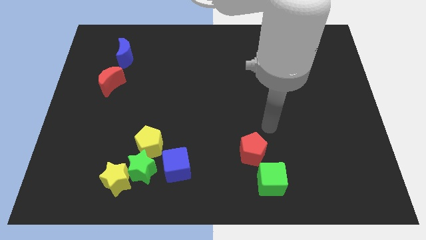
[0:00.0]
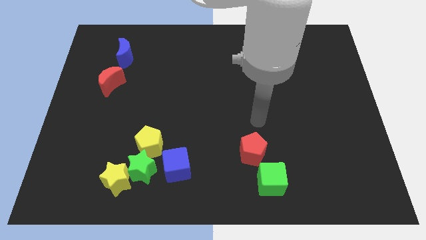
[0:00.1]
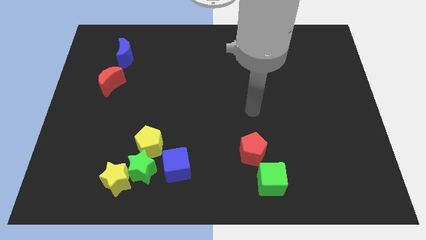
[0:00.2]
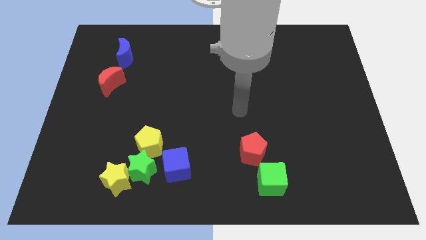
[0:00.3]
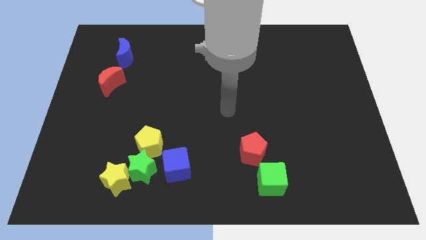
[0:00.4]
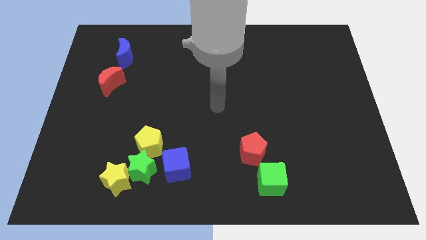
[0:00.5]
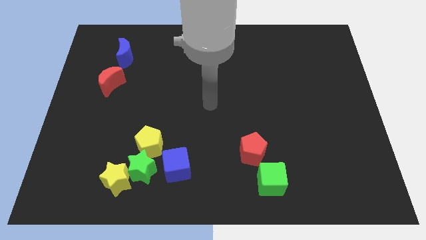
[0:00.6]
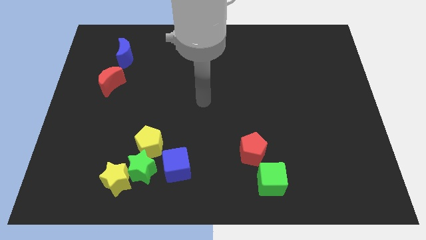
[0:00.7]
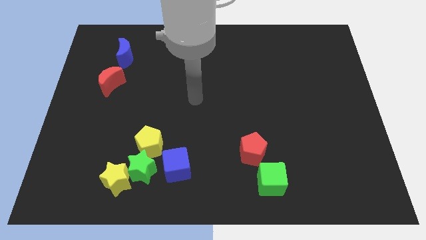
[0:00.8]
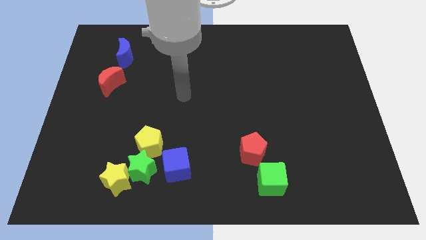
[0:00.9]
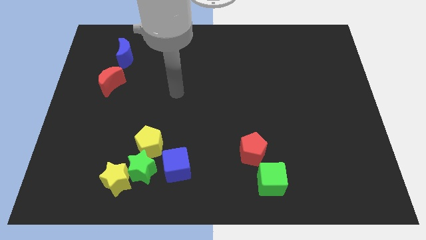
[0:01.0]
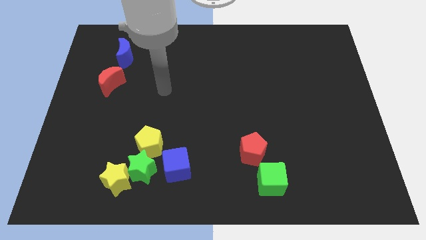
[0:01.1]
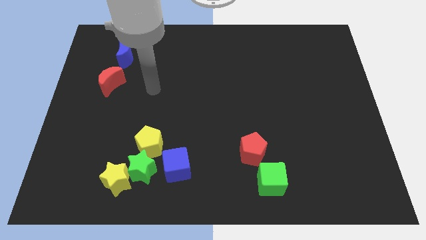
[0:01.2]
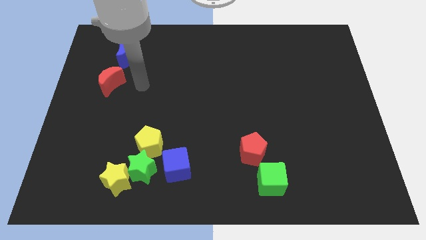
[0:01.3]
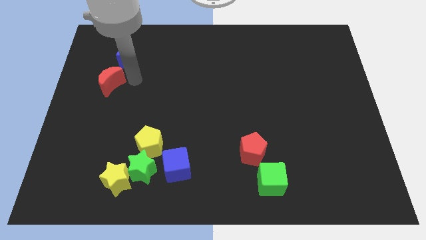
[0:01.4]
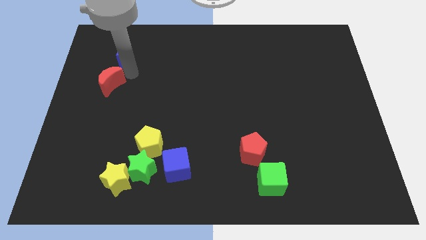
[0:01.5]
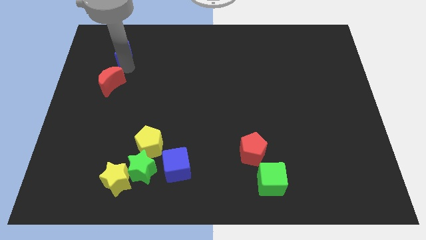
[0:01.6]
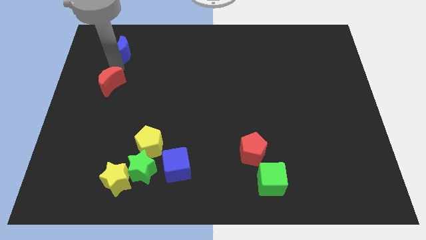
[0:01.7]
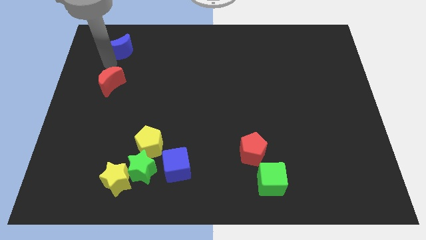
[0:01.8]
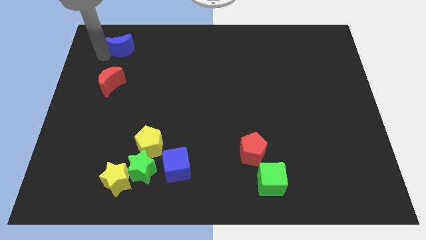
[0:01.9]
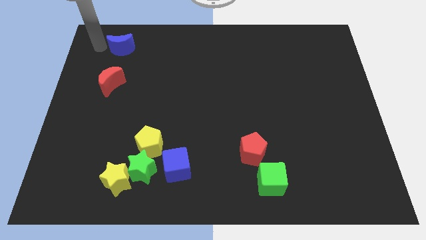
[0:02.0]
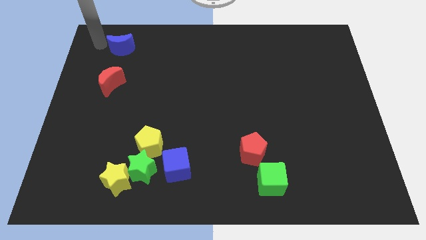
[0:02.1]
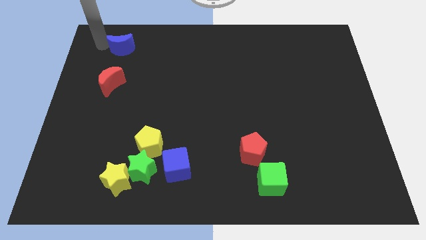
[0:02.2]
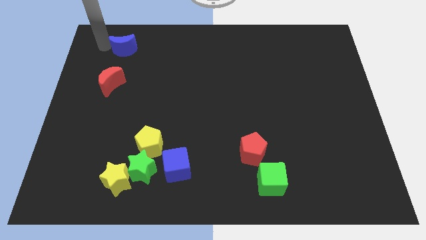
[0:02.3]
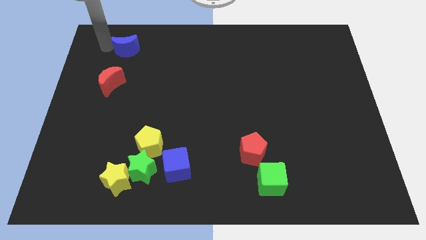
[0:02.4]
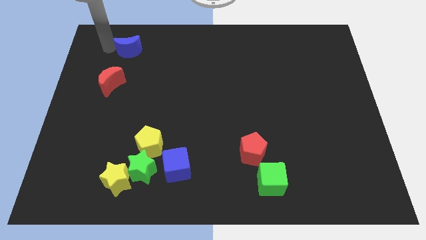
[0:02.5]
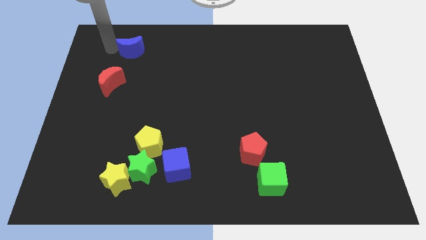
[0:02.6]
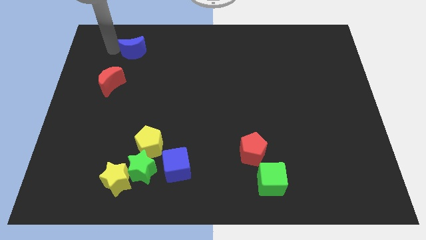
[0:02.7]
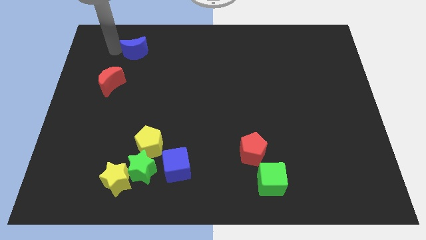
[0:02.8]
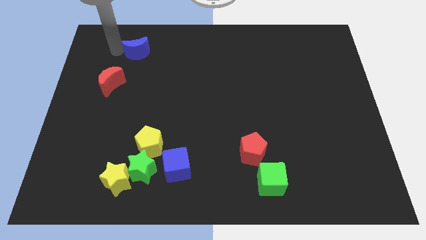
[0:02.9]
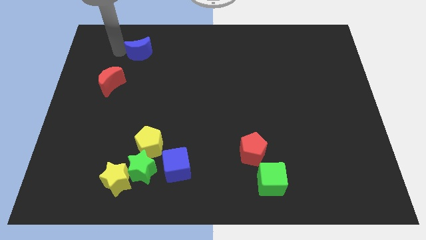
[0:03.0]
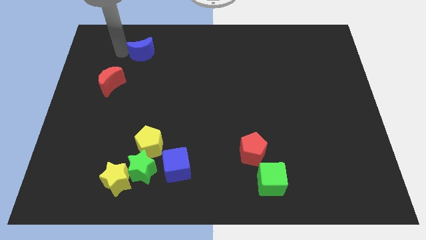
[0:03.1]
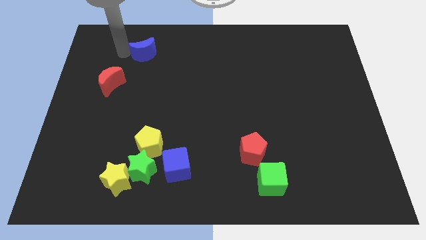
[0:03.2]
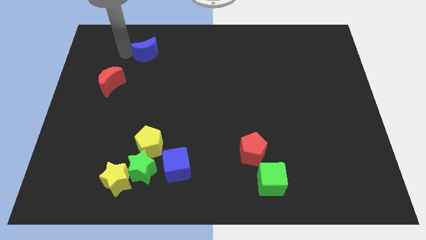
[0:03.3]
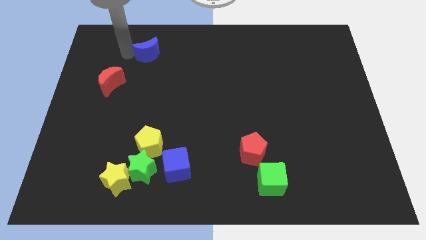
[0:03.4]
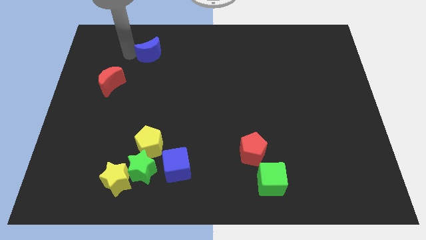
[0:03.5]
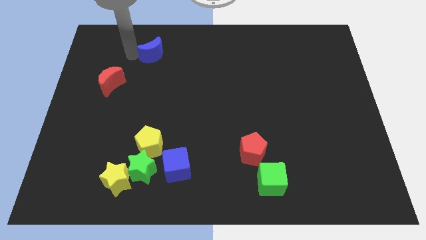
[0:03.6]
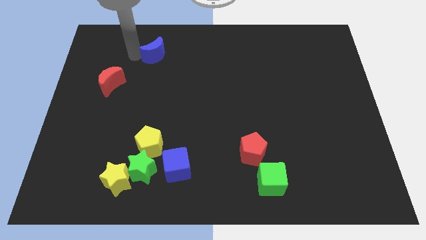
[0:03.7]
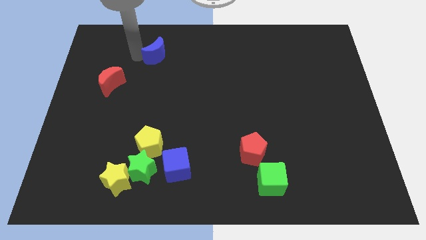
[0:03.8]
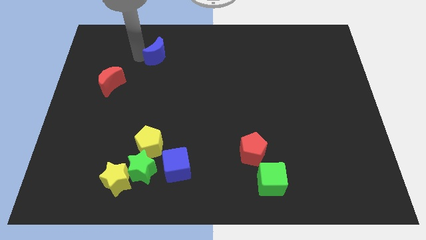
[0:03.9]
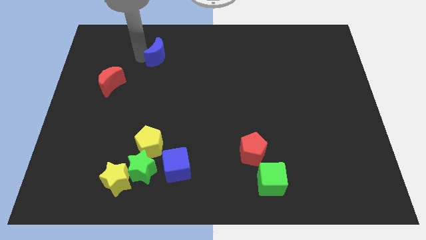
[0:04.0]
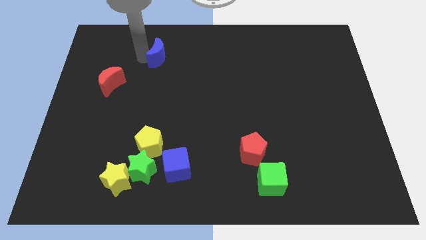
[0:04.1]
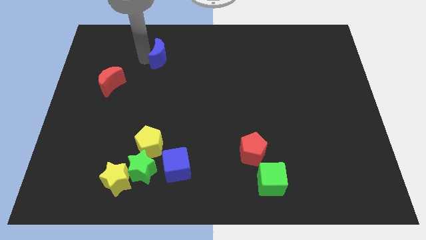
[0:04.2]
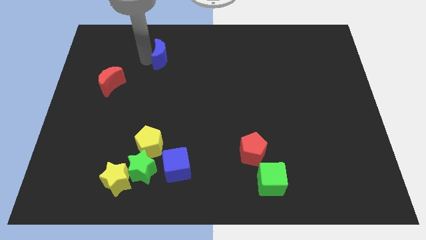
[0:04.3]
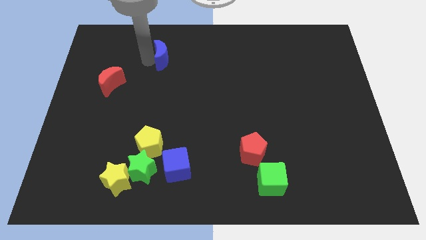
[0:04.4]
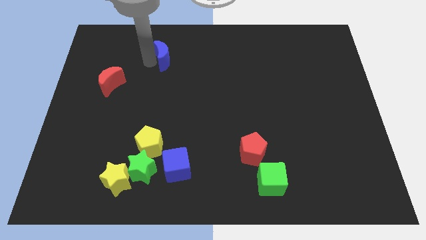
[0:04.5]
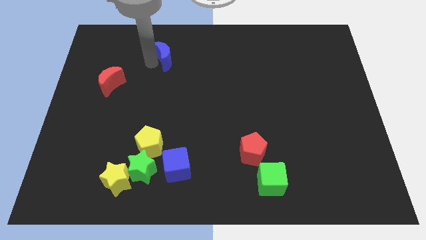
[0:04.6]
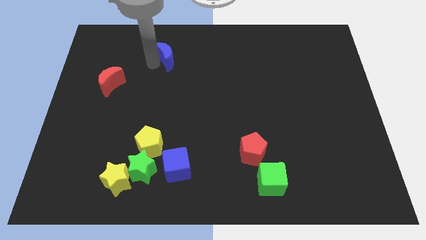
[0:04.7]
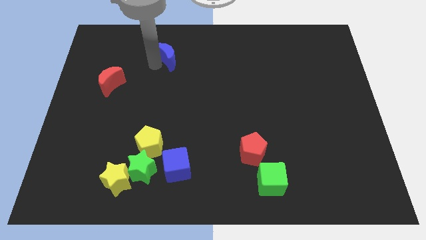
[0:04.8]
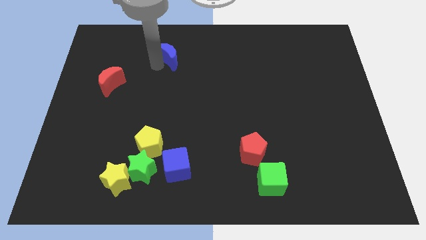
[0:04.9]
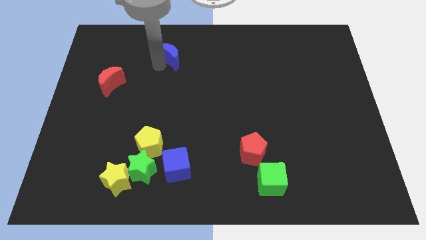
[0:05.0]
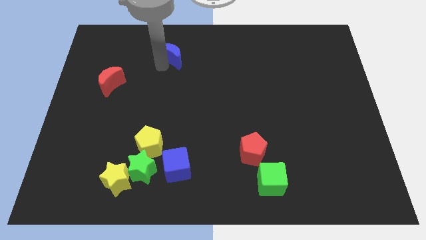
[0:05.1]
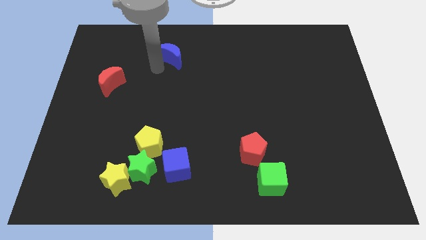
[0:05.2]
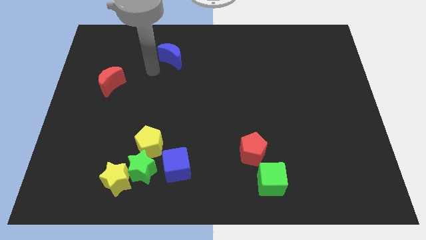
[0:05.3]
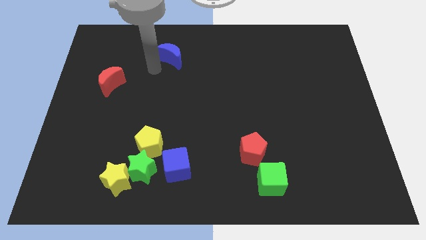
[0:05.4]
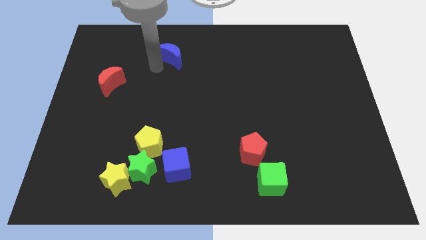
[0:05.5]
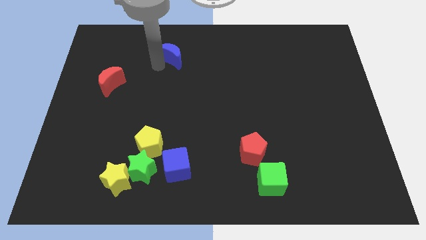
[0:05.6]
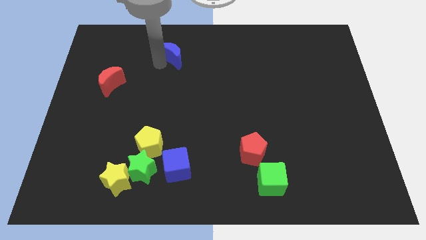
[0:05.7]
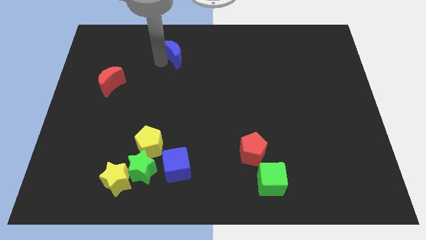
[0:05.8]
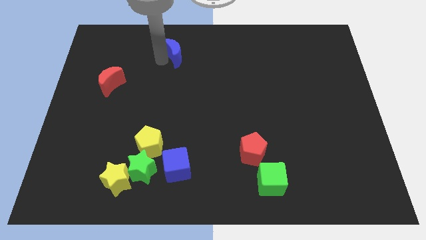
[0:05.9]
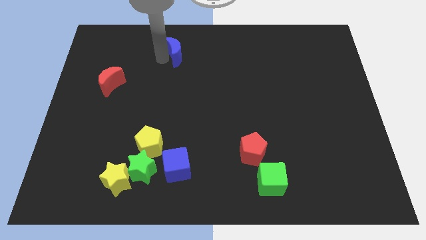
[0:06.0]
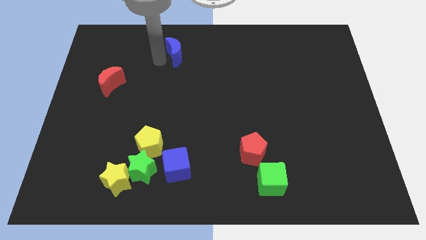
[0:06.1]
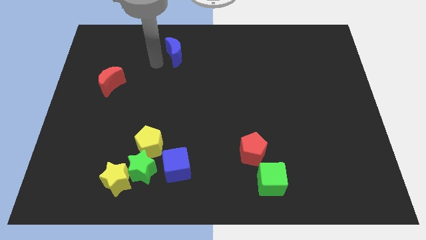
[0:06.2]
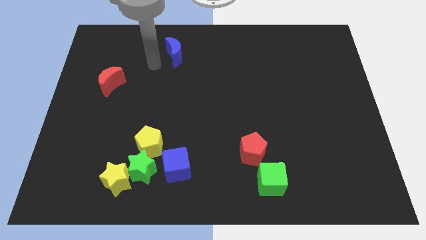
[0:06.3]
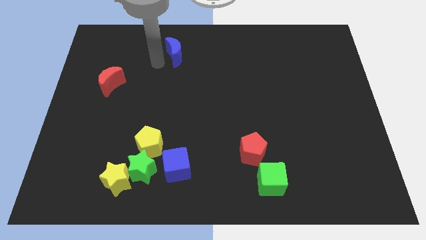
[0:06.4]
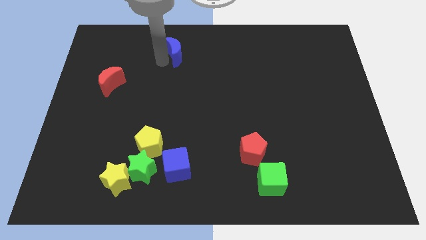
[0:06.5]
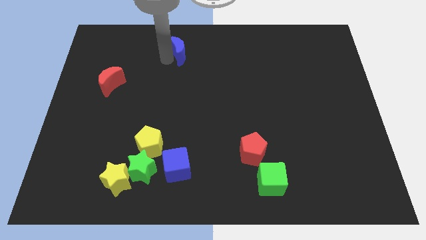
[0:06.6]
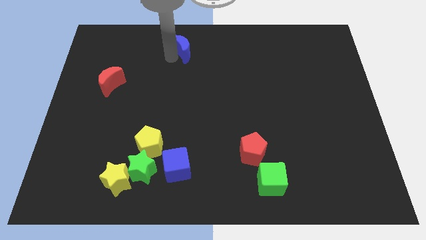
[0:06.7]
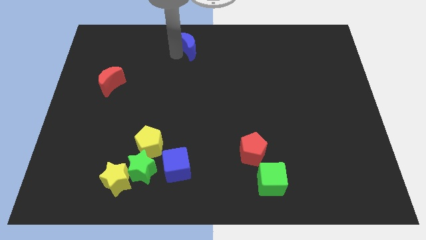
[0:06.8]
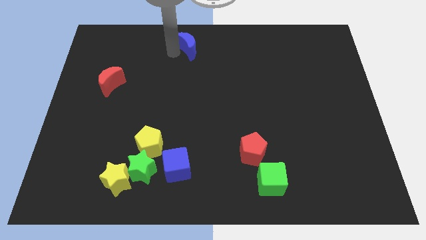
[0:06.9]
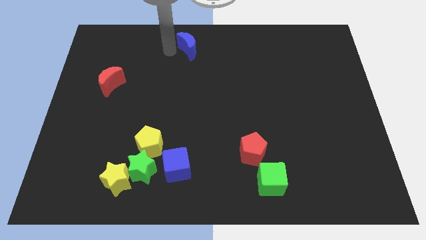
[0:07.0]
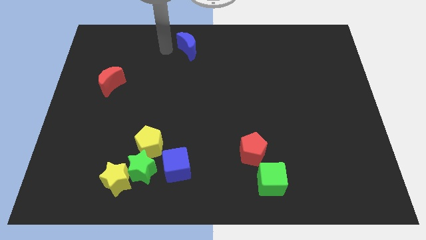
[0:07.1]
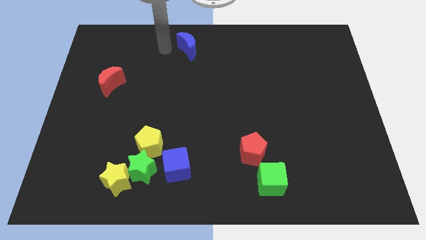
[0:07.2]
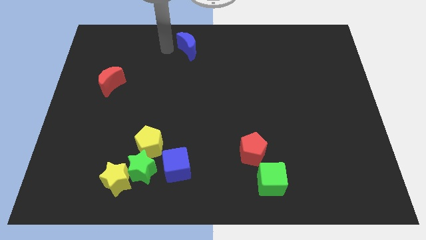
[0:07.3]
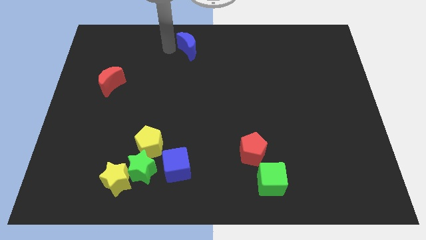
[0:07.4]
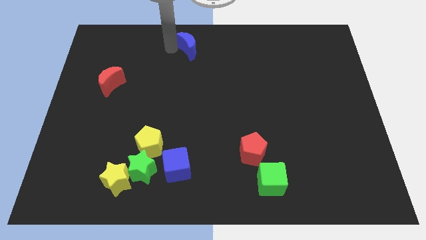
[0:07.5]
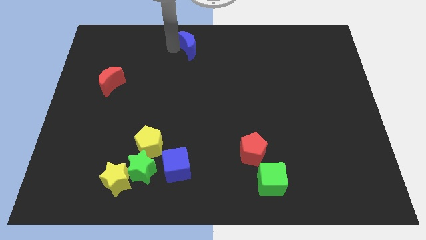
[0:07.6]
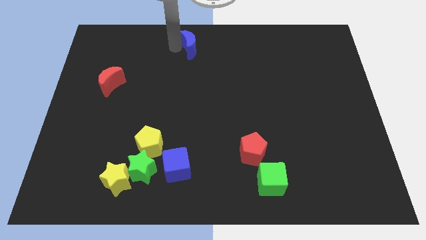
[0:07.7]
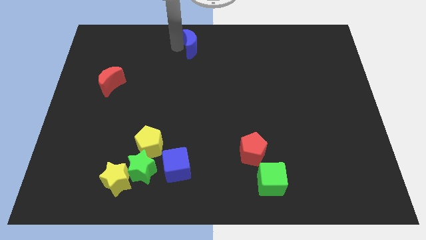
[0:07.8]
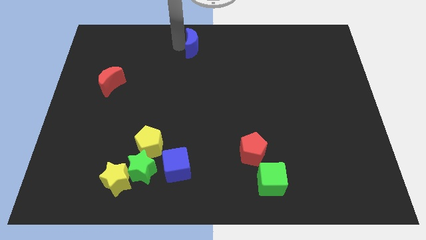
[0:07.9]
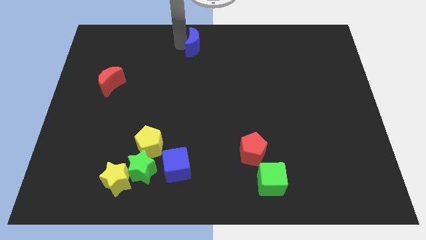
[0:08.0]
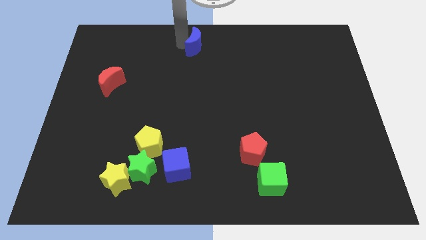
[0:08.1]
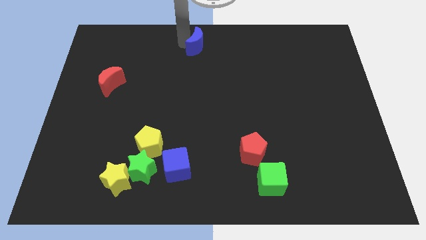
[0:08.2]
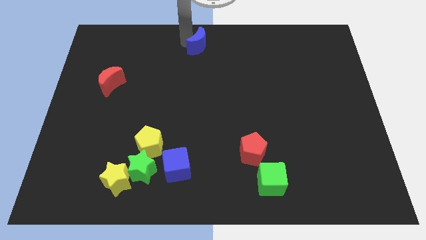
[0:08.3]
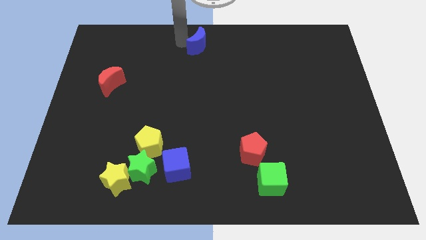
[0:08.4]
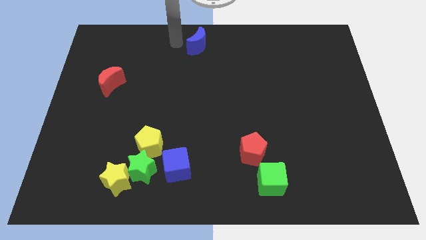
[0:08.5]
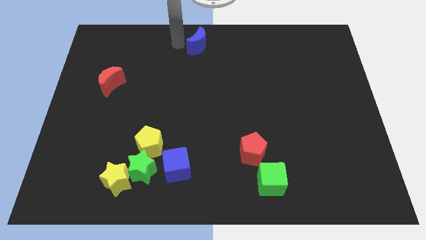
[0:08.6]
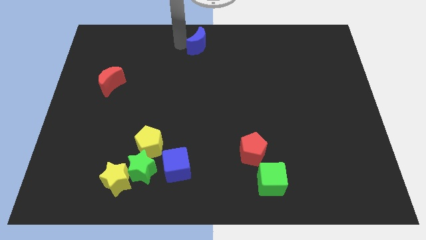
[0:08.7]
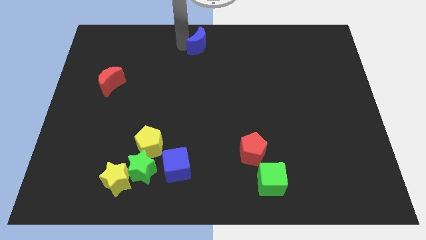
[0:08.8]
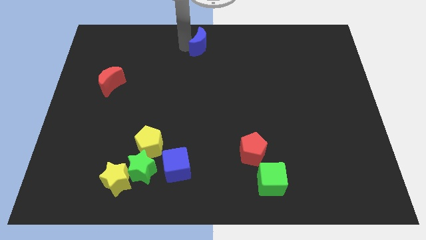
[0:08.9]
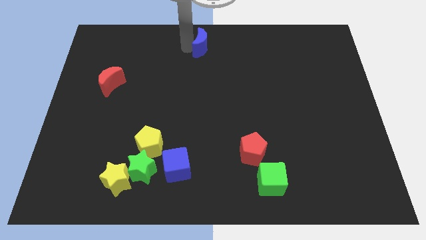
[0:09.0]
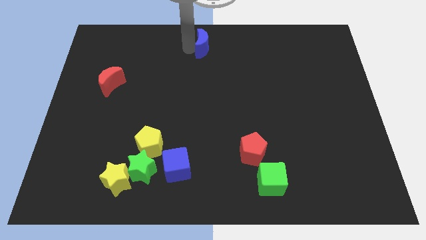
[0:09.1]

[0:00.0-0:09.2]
slide the blue moon to the right
